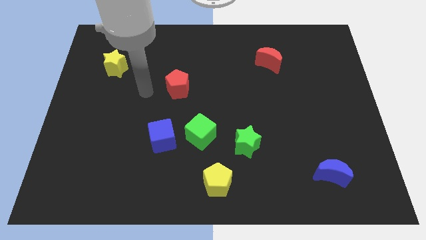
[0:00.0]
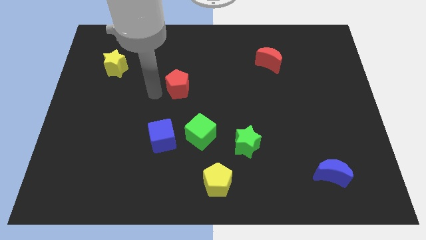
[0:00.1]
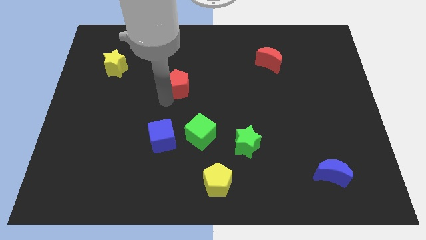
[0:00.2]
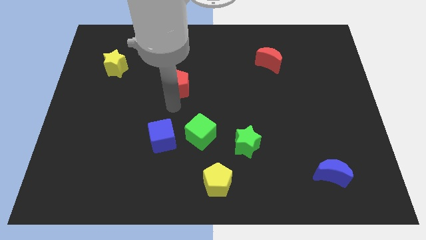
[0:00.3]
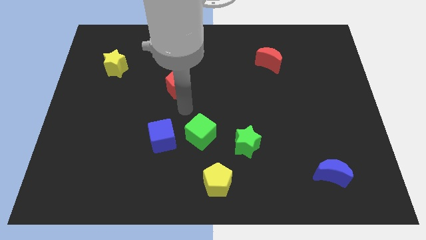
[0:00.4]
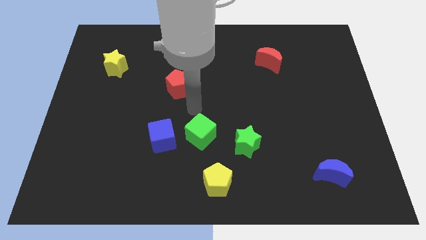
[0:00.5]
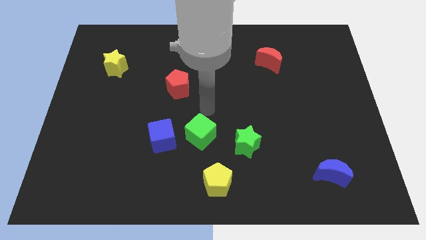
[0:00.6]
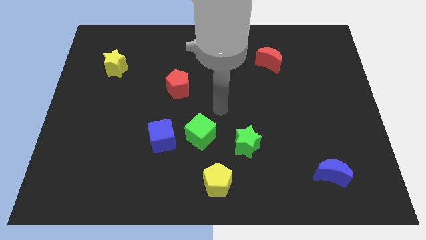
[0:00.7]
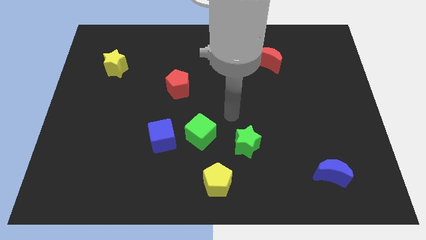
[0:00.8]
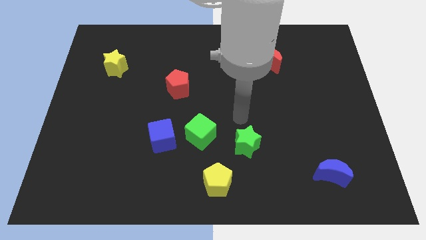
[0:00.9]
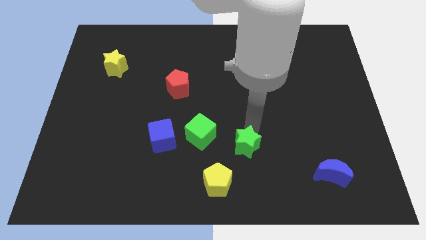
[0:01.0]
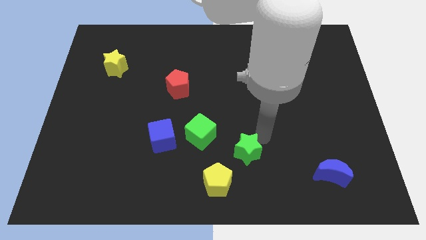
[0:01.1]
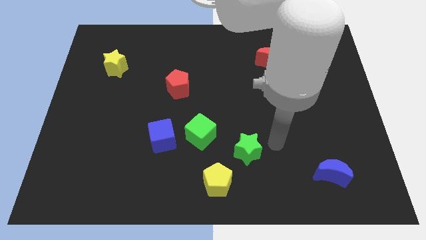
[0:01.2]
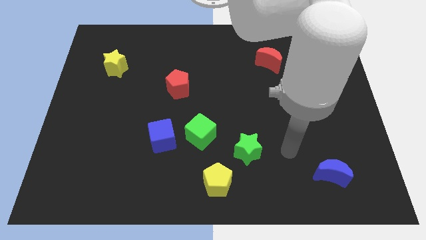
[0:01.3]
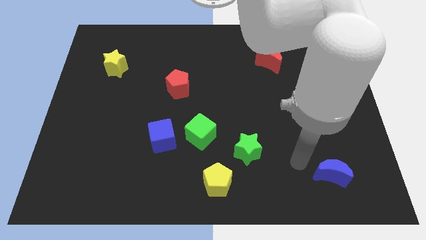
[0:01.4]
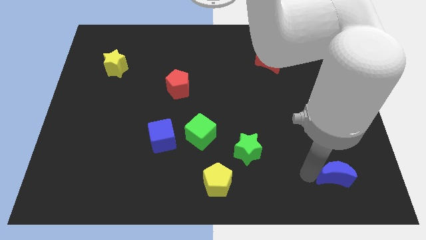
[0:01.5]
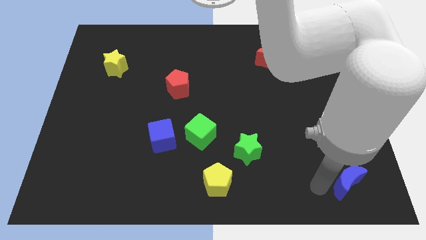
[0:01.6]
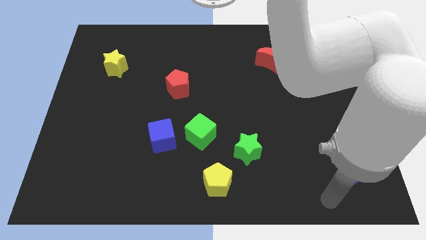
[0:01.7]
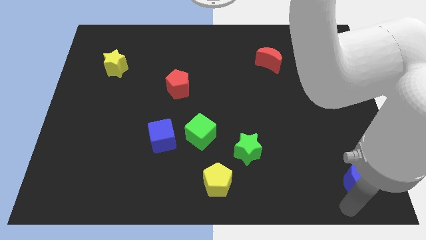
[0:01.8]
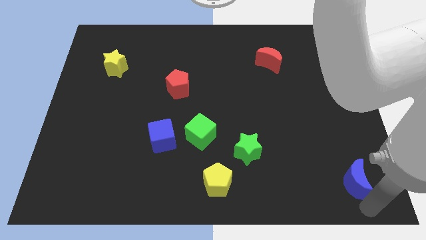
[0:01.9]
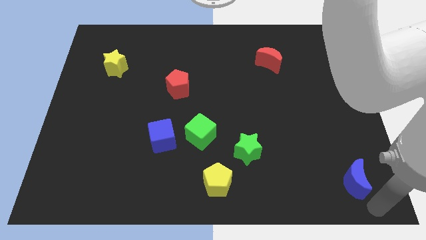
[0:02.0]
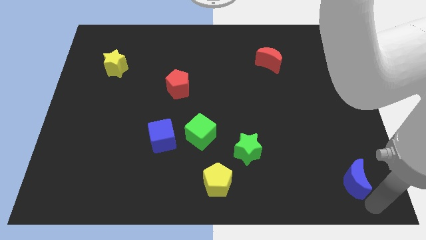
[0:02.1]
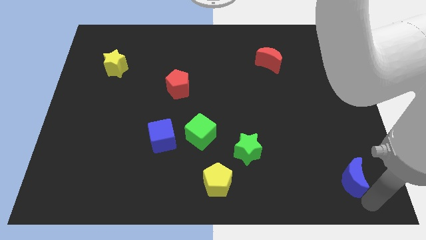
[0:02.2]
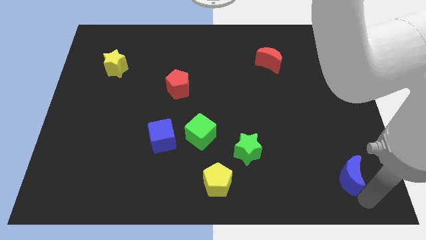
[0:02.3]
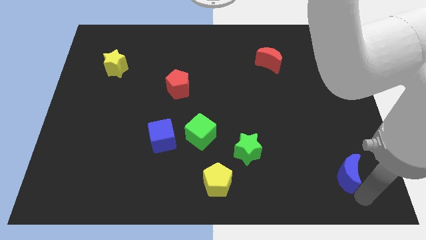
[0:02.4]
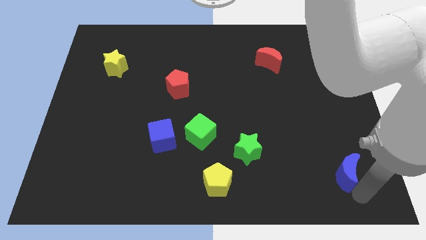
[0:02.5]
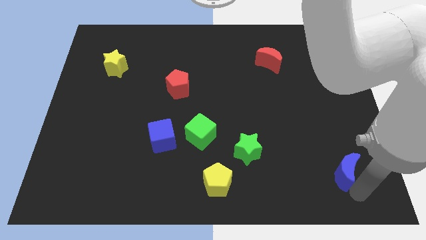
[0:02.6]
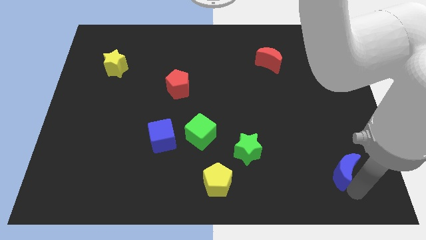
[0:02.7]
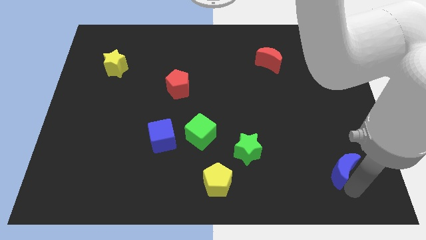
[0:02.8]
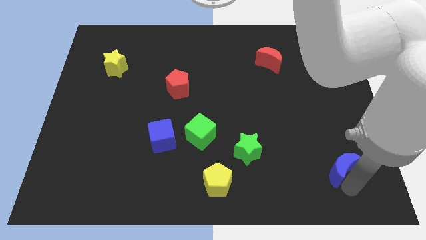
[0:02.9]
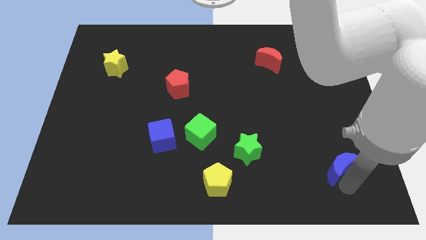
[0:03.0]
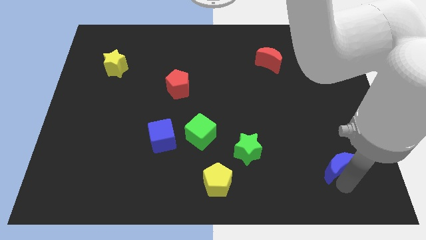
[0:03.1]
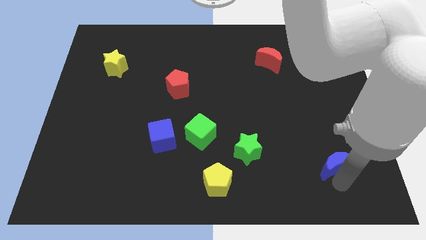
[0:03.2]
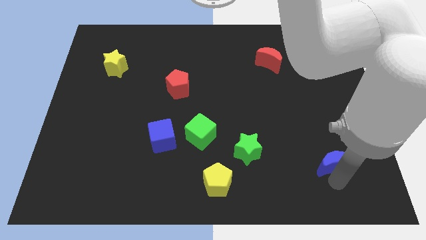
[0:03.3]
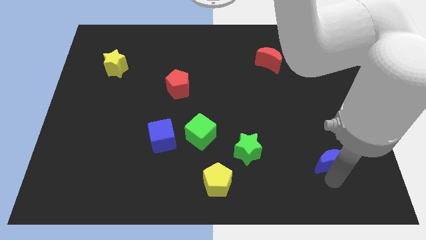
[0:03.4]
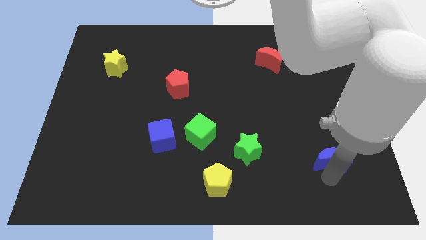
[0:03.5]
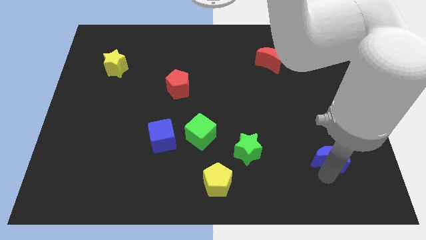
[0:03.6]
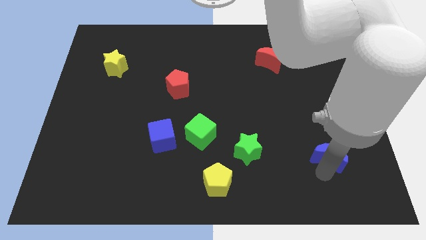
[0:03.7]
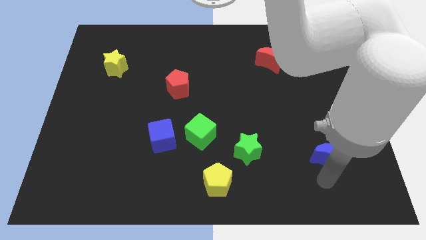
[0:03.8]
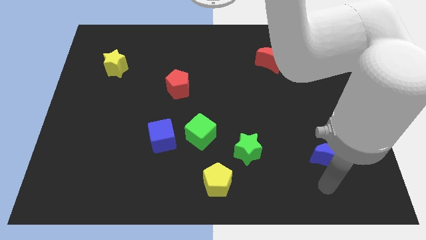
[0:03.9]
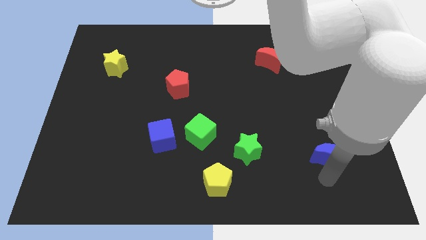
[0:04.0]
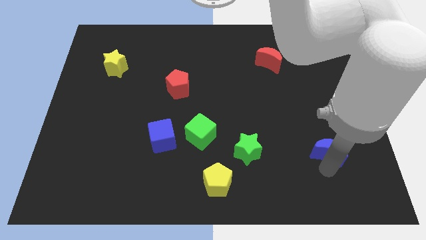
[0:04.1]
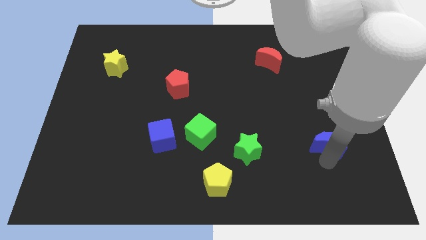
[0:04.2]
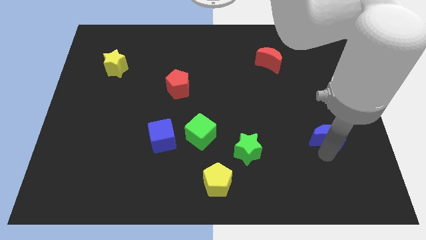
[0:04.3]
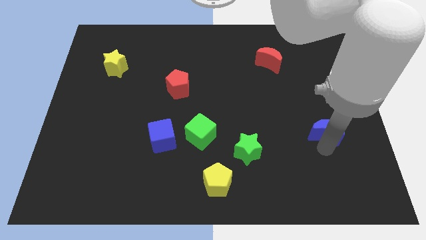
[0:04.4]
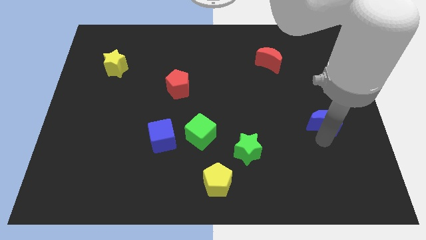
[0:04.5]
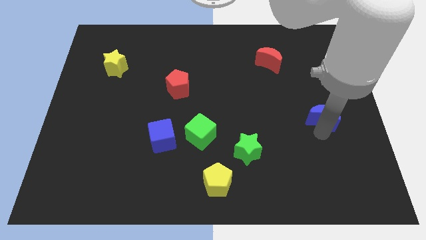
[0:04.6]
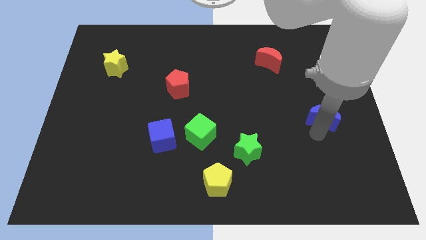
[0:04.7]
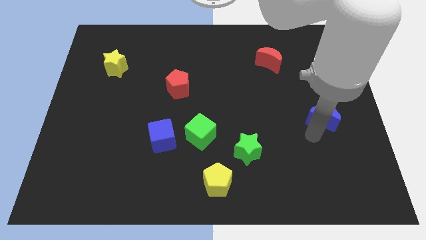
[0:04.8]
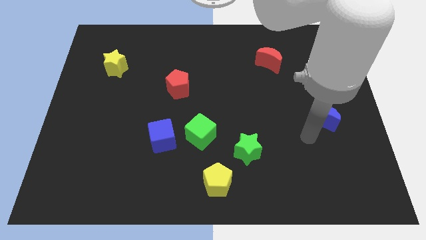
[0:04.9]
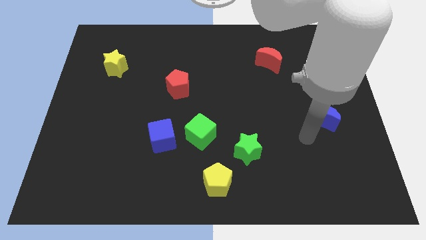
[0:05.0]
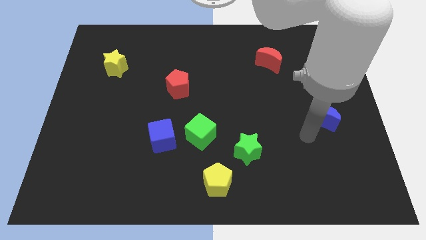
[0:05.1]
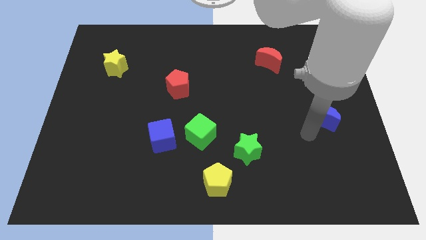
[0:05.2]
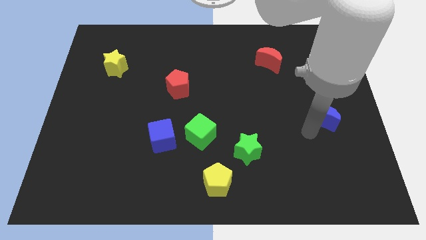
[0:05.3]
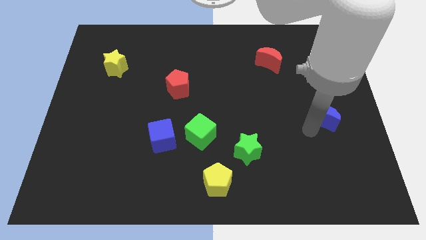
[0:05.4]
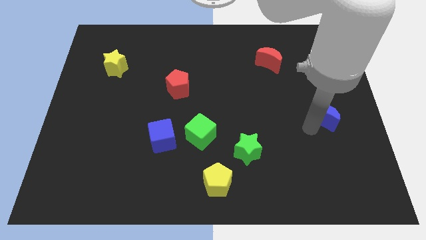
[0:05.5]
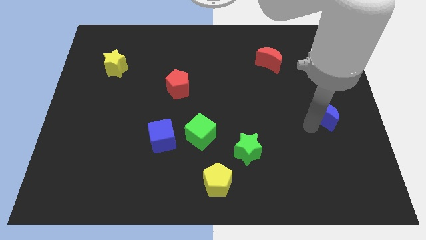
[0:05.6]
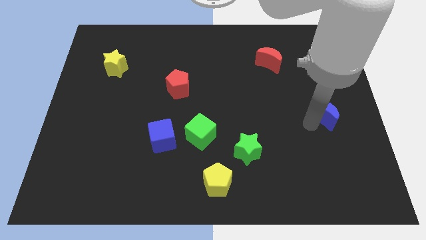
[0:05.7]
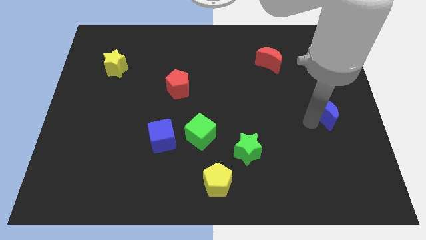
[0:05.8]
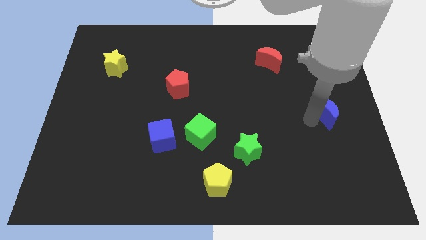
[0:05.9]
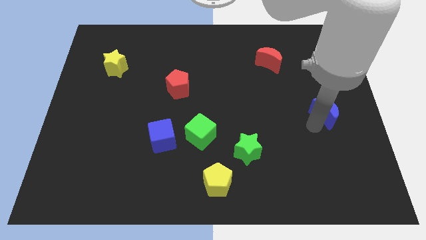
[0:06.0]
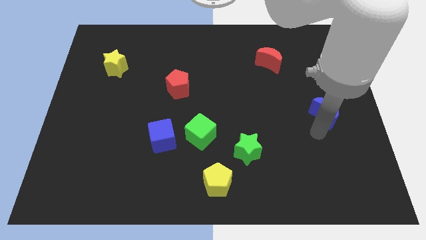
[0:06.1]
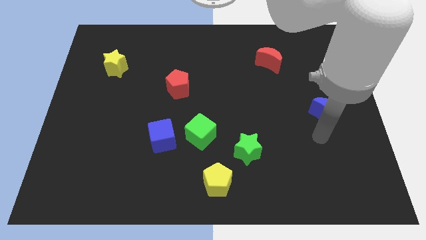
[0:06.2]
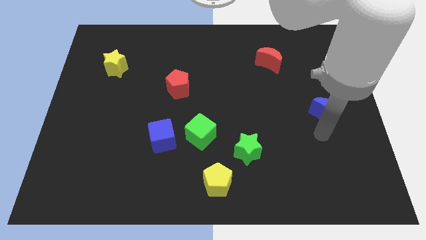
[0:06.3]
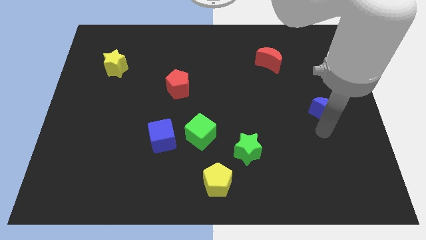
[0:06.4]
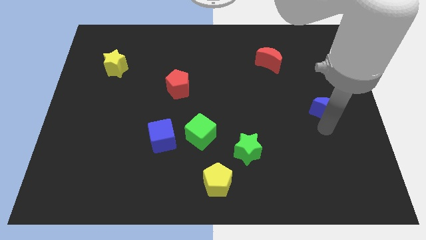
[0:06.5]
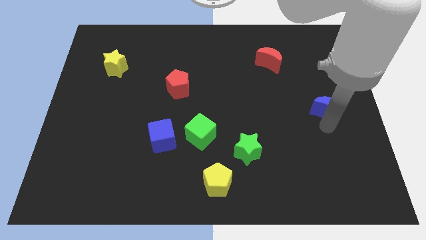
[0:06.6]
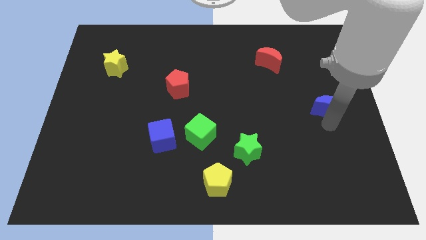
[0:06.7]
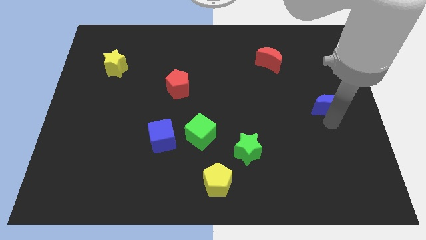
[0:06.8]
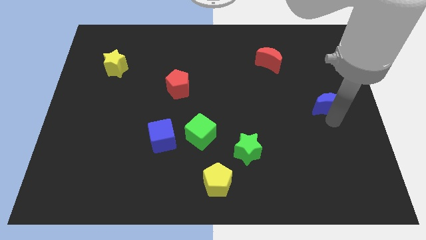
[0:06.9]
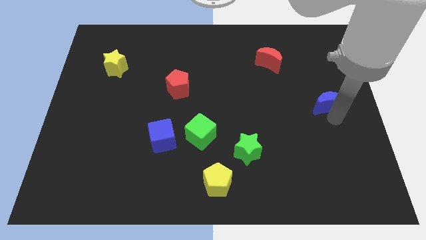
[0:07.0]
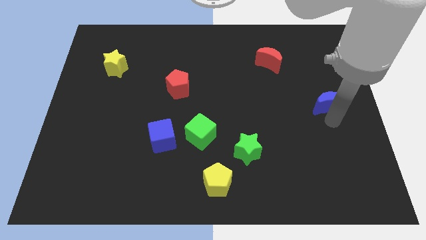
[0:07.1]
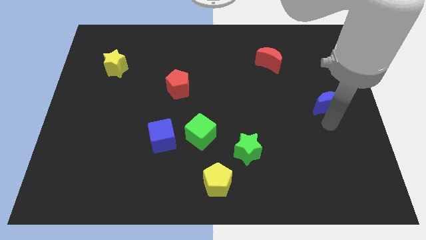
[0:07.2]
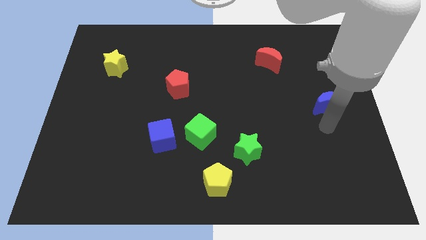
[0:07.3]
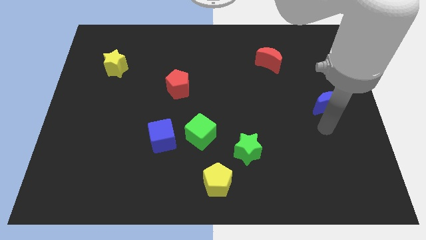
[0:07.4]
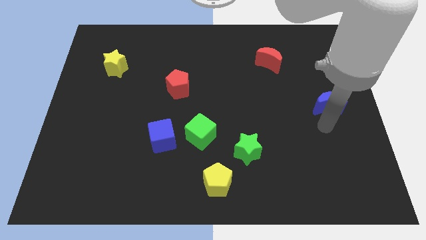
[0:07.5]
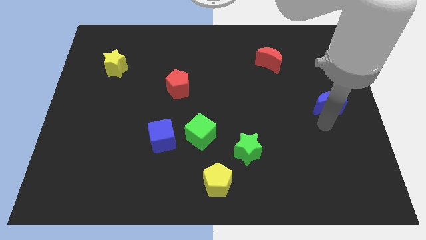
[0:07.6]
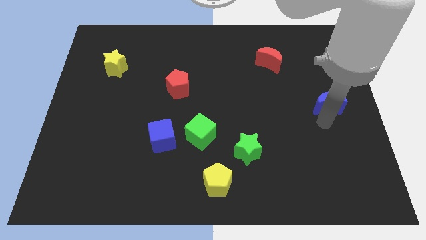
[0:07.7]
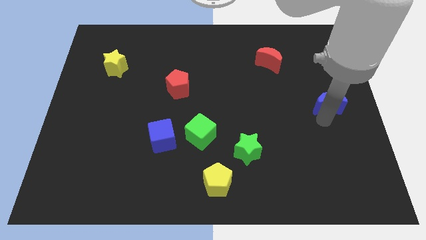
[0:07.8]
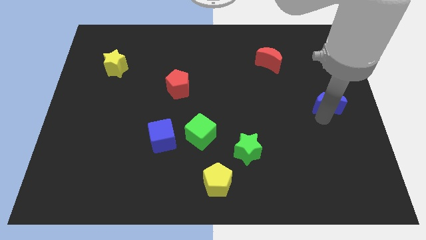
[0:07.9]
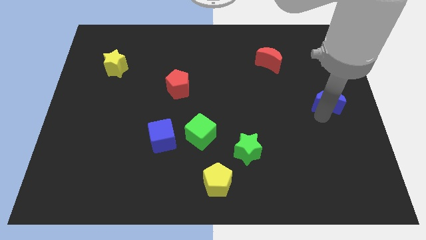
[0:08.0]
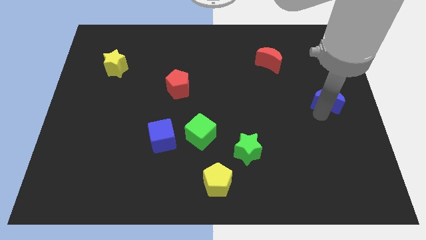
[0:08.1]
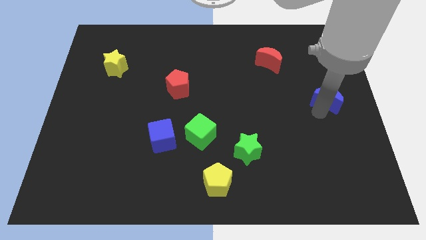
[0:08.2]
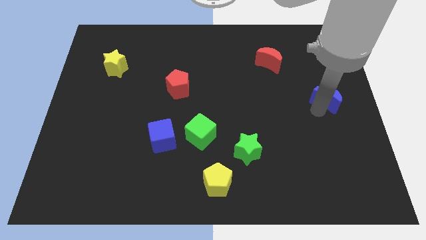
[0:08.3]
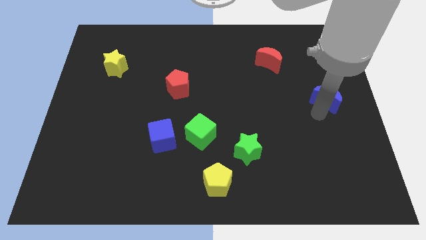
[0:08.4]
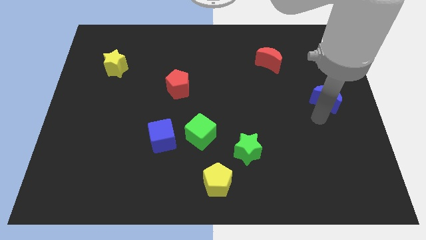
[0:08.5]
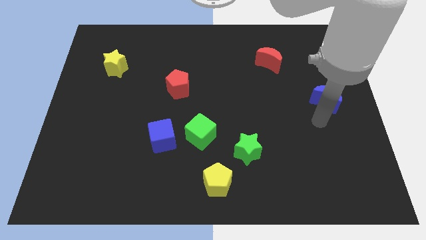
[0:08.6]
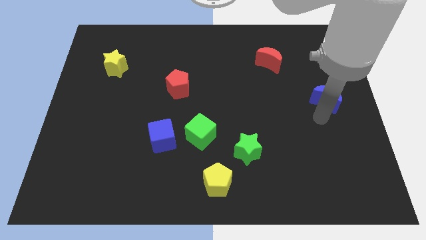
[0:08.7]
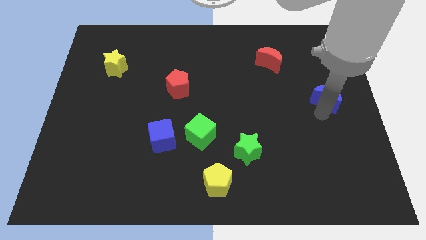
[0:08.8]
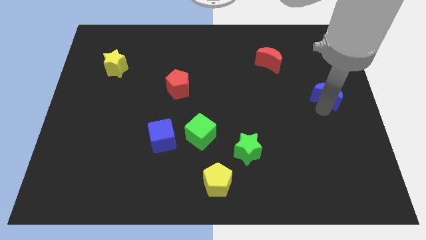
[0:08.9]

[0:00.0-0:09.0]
move the blue moon up
